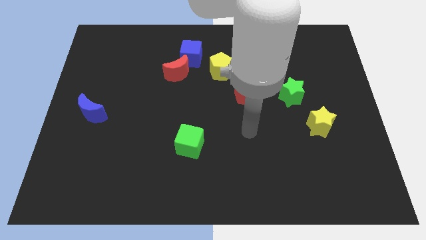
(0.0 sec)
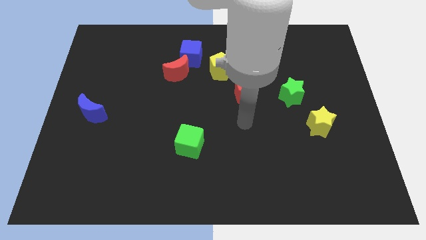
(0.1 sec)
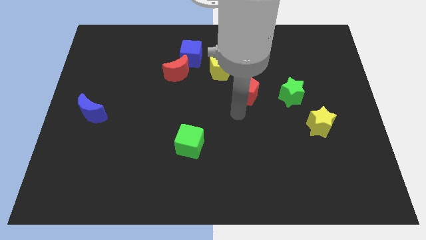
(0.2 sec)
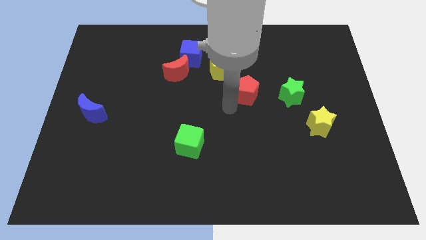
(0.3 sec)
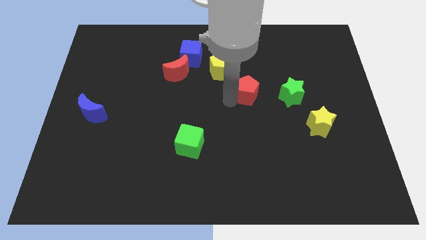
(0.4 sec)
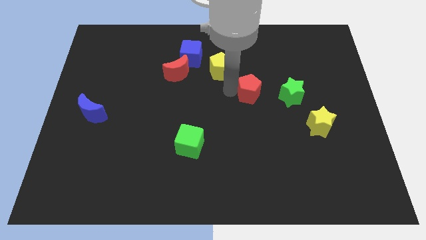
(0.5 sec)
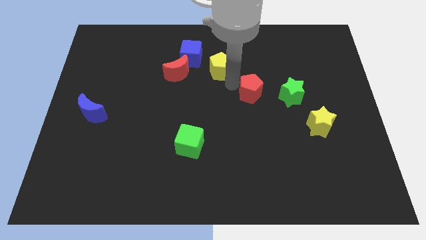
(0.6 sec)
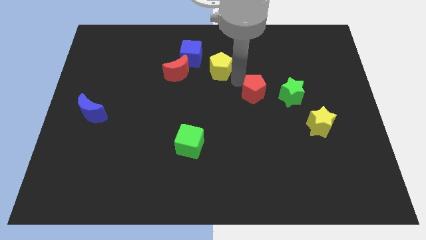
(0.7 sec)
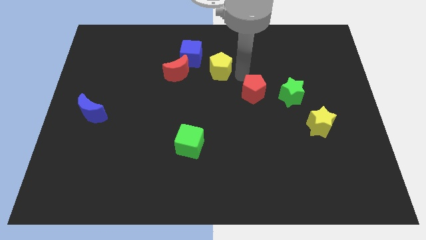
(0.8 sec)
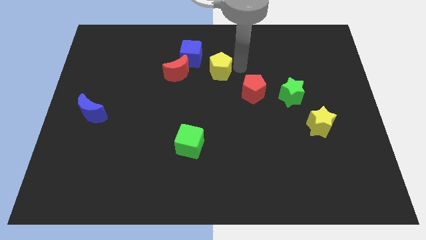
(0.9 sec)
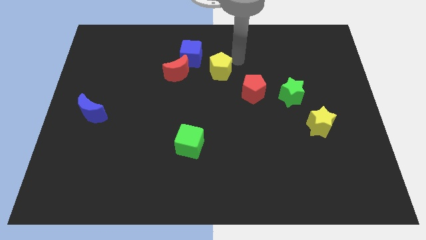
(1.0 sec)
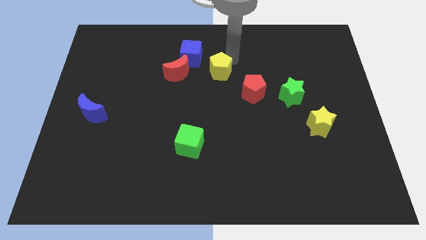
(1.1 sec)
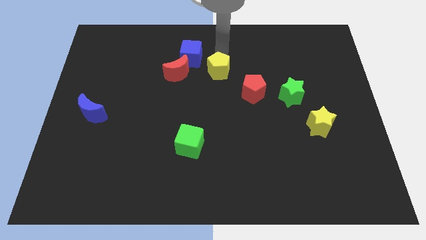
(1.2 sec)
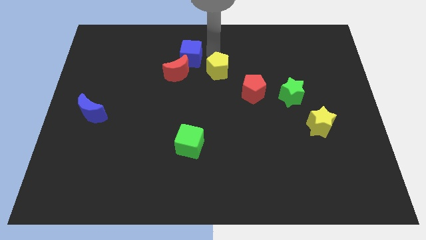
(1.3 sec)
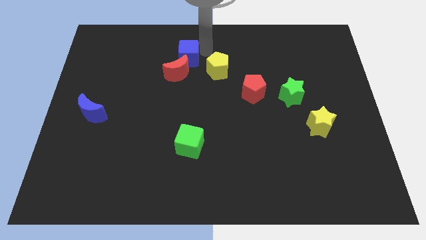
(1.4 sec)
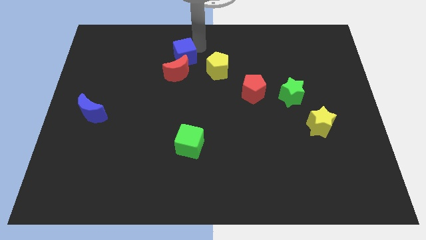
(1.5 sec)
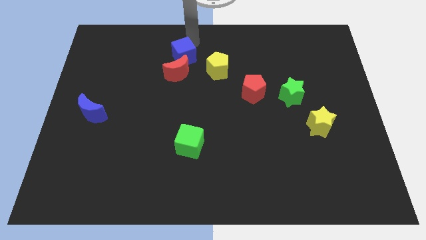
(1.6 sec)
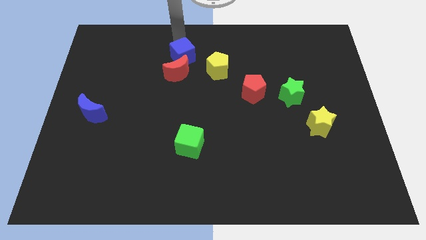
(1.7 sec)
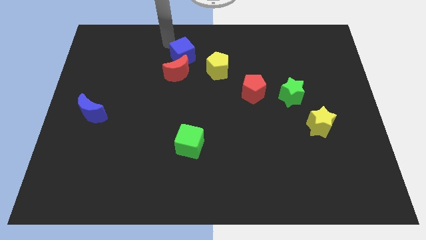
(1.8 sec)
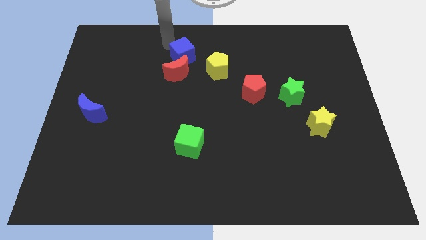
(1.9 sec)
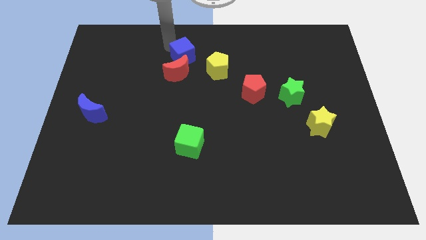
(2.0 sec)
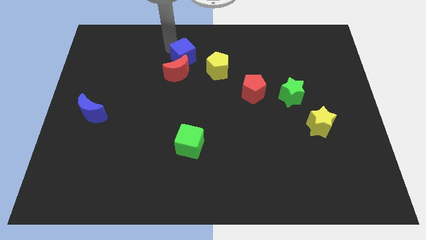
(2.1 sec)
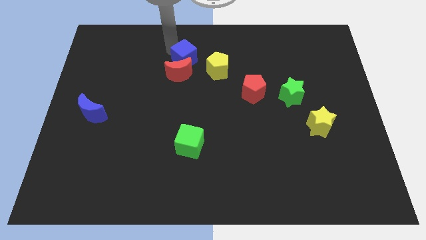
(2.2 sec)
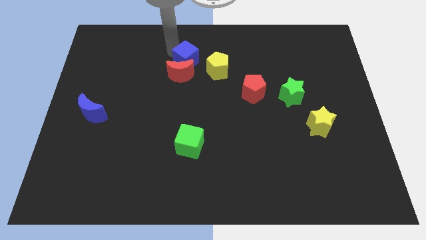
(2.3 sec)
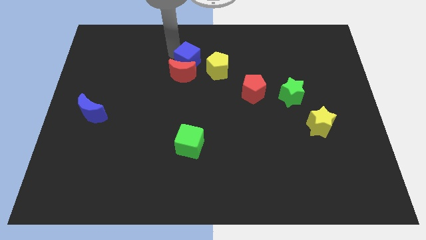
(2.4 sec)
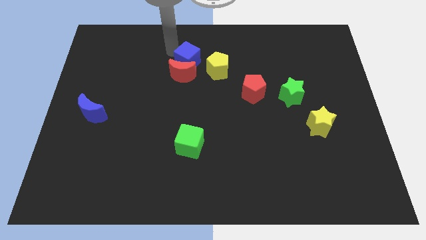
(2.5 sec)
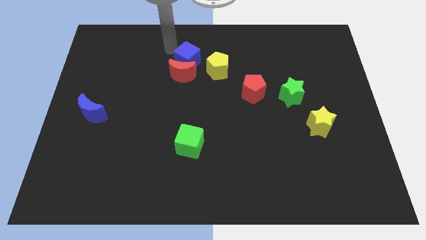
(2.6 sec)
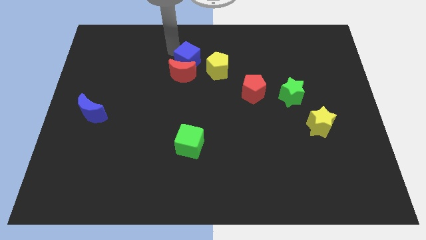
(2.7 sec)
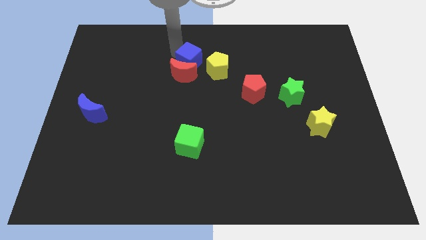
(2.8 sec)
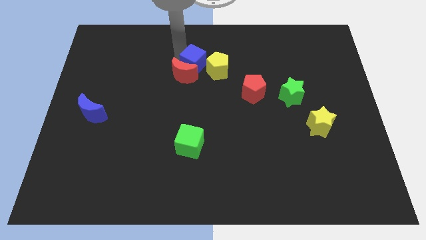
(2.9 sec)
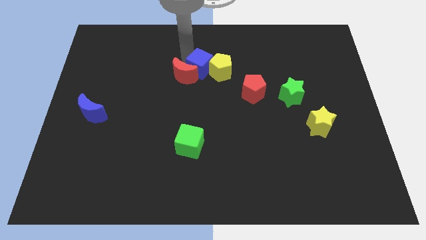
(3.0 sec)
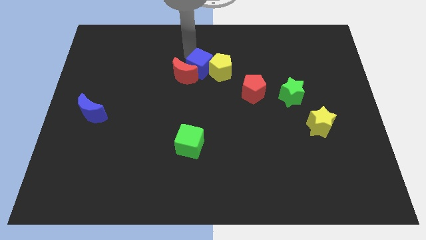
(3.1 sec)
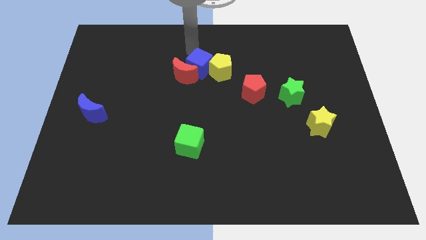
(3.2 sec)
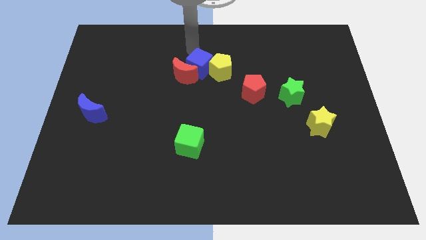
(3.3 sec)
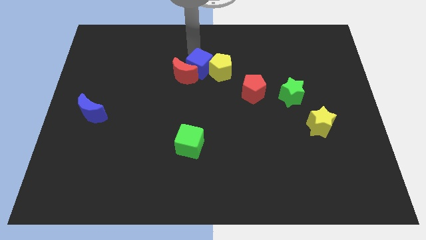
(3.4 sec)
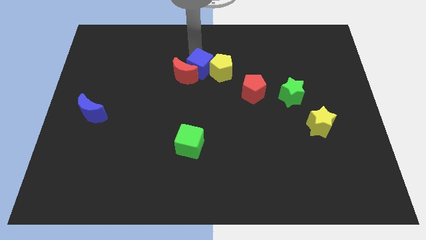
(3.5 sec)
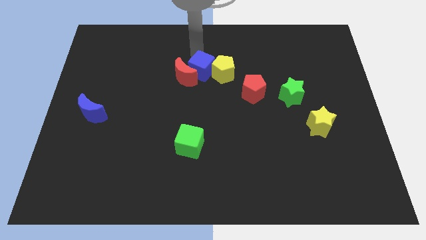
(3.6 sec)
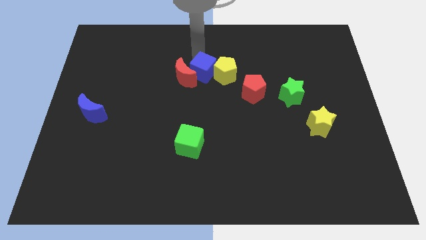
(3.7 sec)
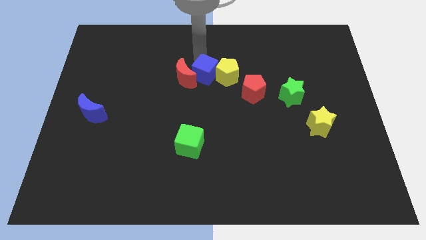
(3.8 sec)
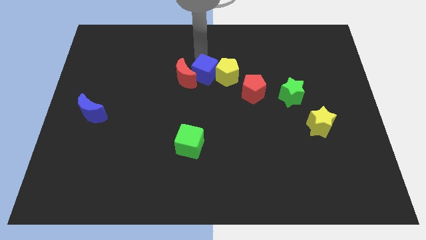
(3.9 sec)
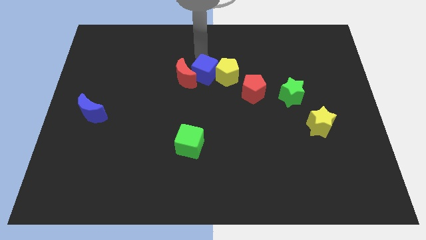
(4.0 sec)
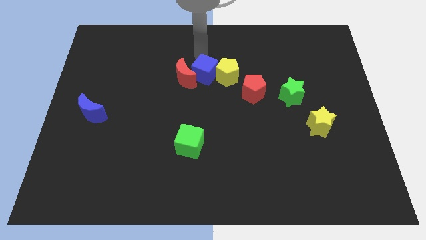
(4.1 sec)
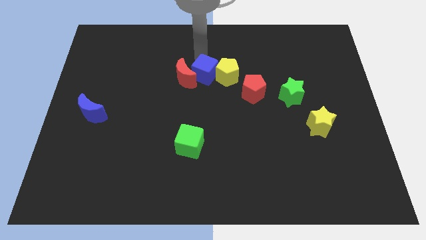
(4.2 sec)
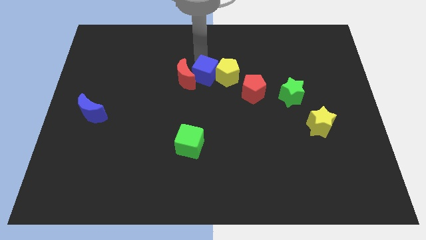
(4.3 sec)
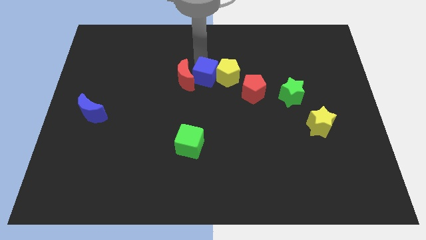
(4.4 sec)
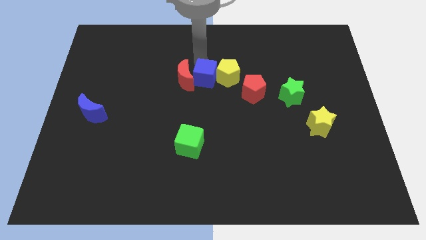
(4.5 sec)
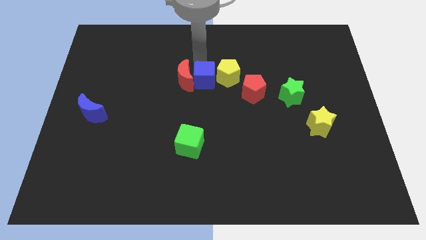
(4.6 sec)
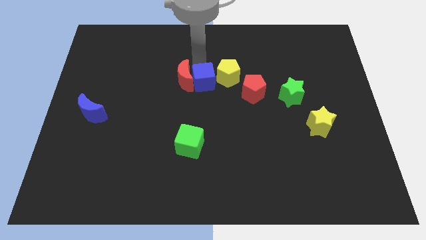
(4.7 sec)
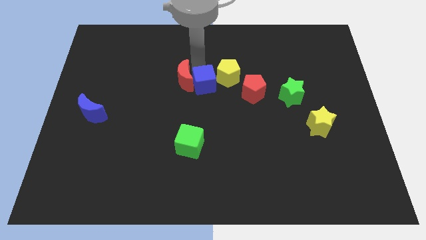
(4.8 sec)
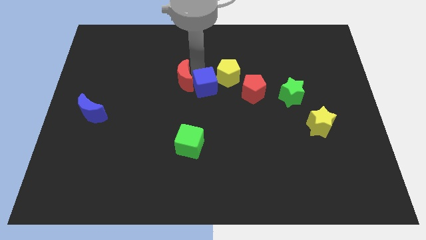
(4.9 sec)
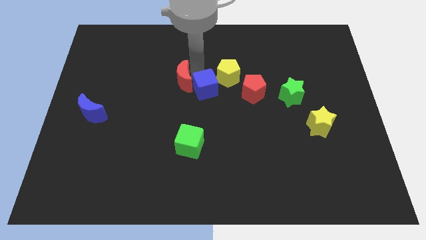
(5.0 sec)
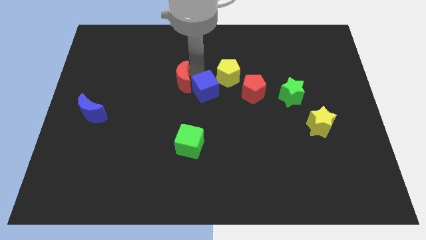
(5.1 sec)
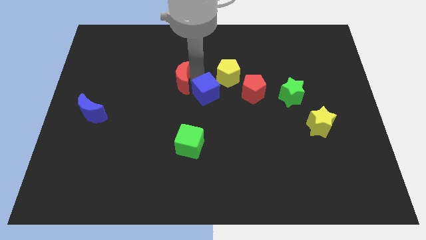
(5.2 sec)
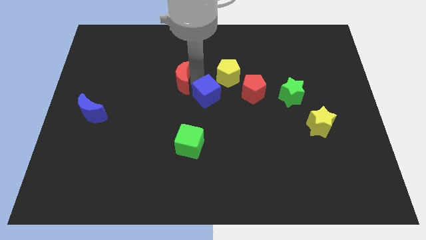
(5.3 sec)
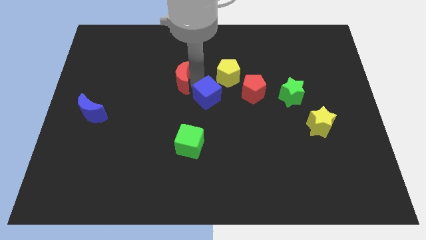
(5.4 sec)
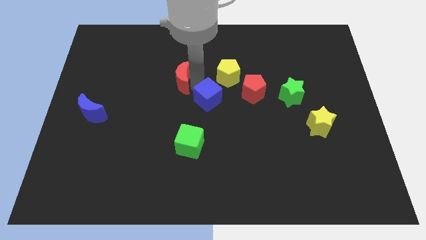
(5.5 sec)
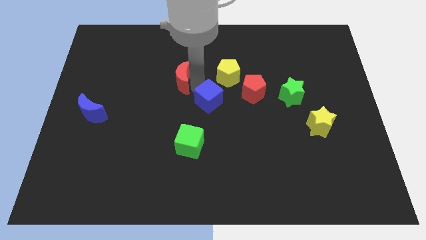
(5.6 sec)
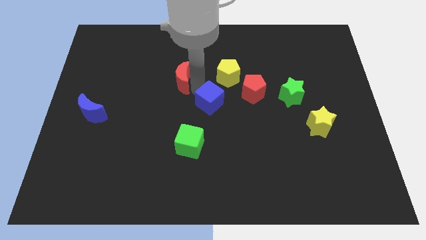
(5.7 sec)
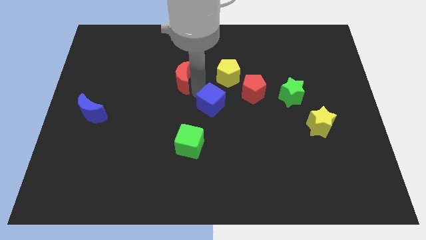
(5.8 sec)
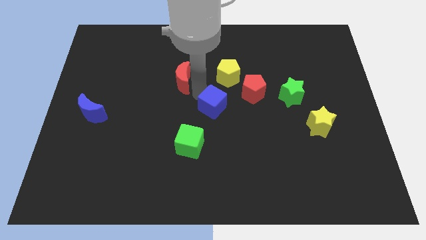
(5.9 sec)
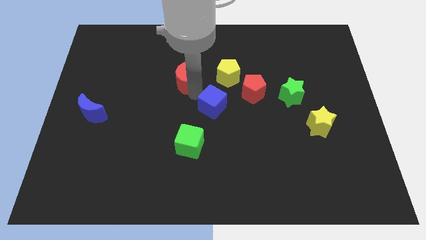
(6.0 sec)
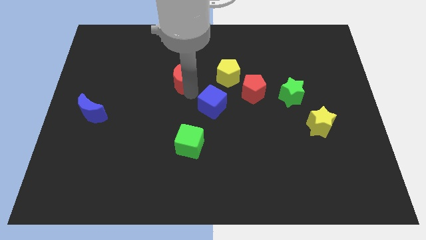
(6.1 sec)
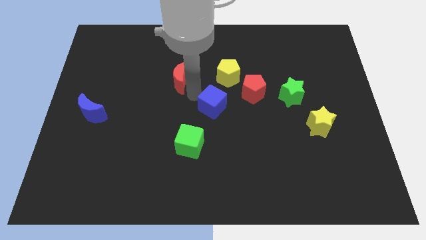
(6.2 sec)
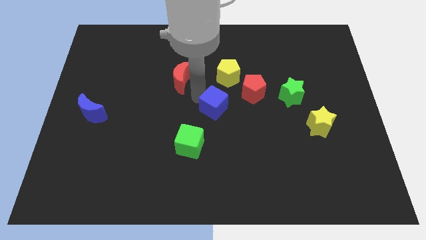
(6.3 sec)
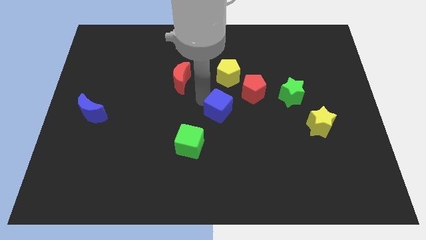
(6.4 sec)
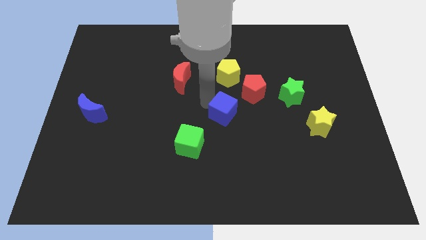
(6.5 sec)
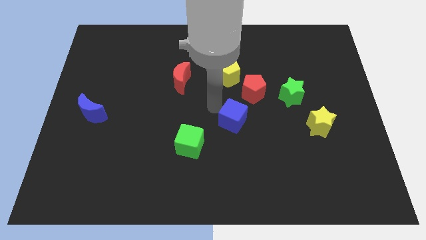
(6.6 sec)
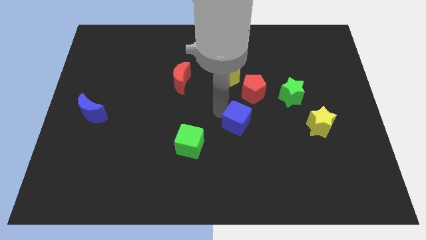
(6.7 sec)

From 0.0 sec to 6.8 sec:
slide the blue cube to the bottom side of the red pentagon
